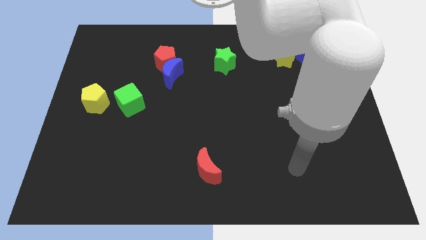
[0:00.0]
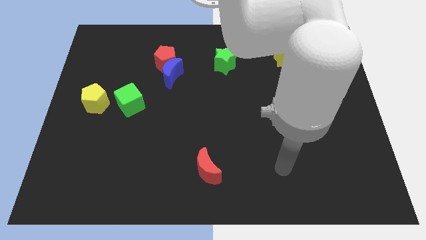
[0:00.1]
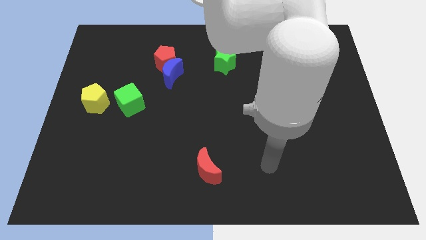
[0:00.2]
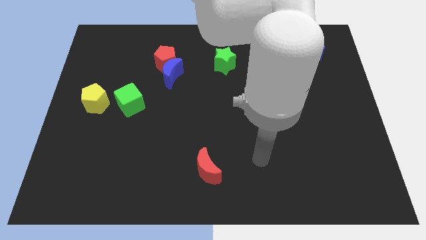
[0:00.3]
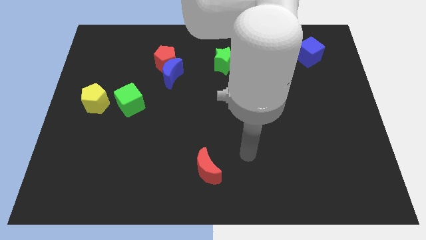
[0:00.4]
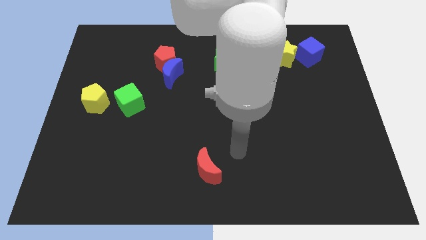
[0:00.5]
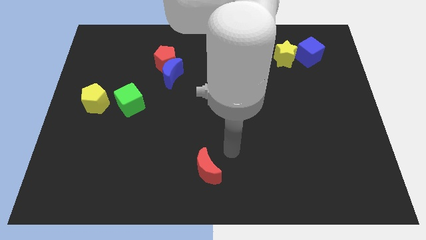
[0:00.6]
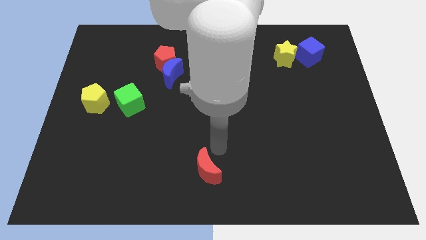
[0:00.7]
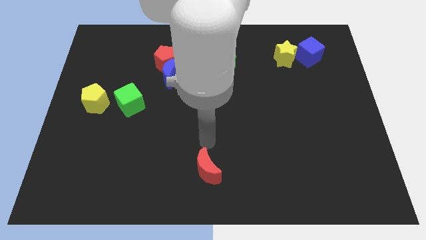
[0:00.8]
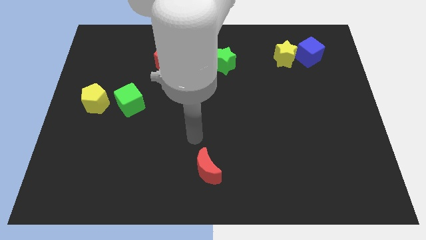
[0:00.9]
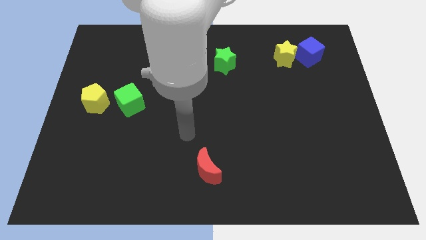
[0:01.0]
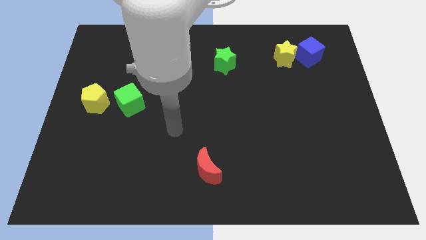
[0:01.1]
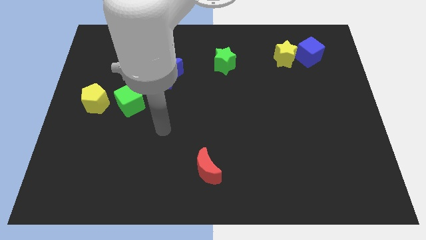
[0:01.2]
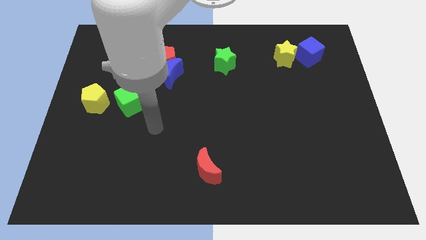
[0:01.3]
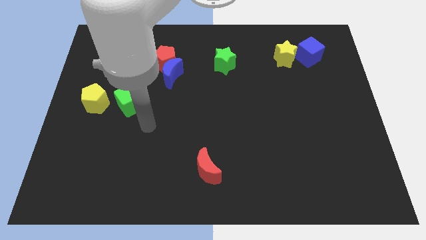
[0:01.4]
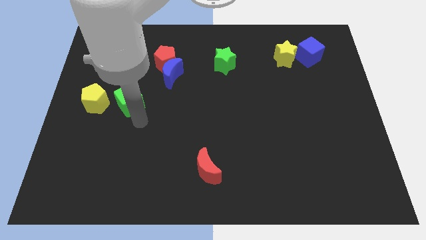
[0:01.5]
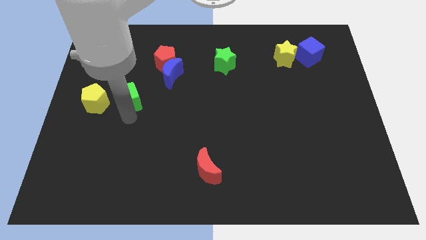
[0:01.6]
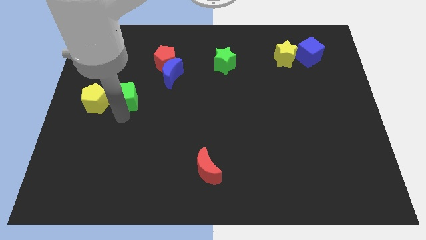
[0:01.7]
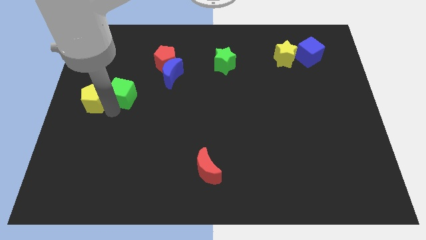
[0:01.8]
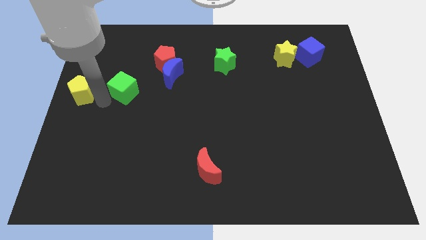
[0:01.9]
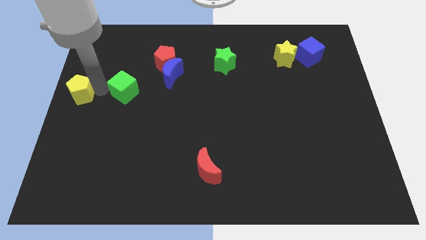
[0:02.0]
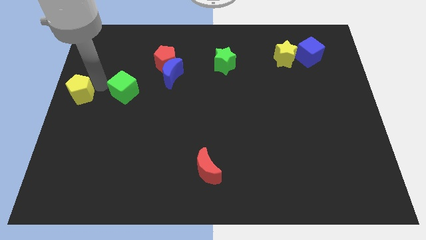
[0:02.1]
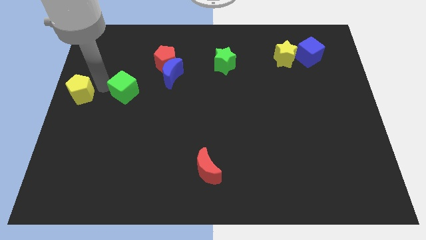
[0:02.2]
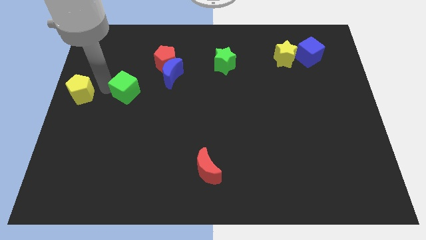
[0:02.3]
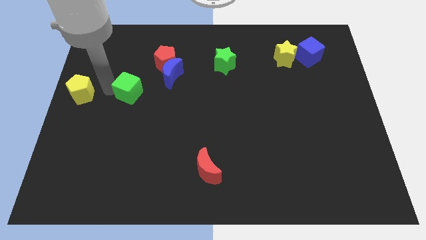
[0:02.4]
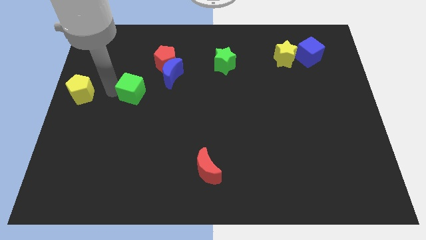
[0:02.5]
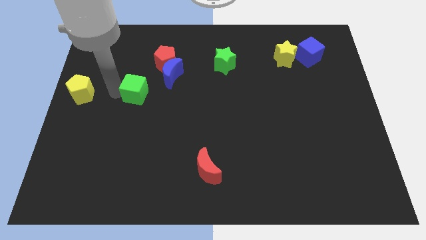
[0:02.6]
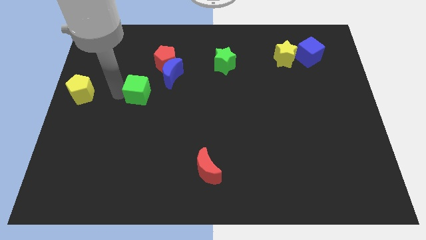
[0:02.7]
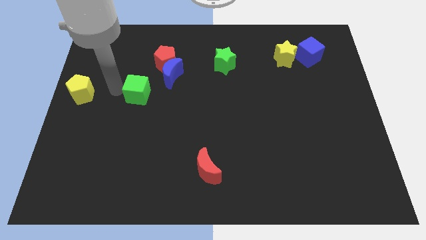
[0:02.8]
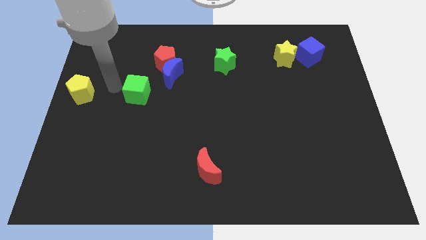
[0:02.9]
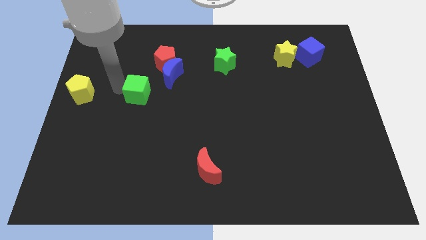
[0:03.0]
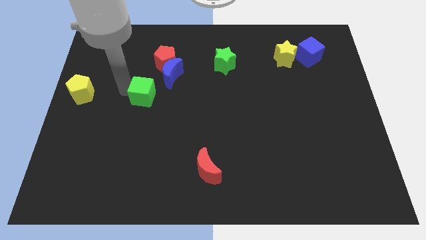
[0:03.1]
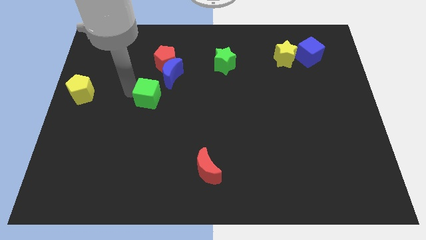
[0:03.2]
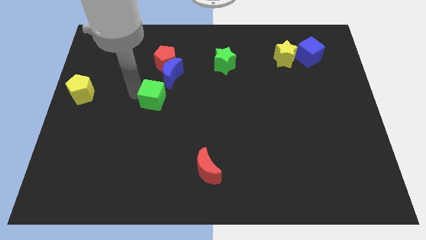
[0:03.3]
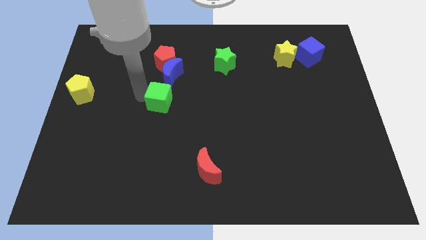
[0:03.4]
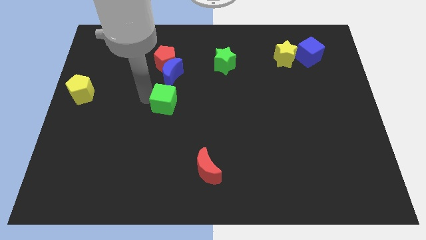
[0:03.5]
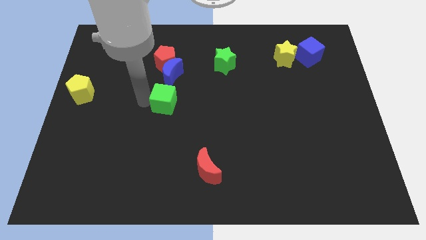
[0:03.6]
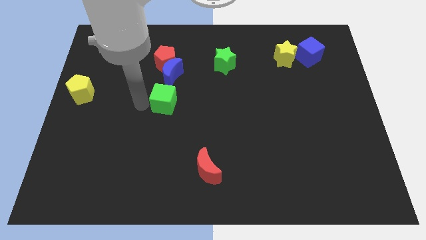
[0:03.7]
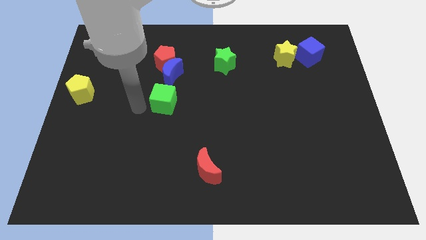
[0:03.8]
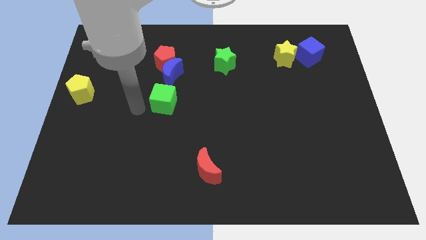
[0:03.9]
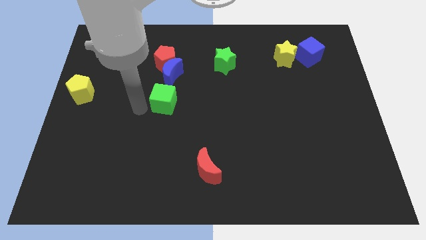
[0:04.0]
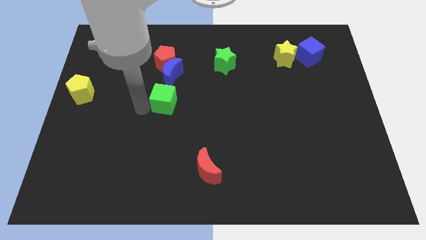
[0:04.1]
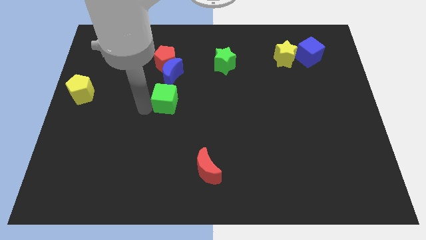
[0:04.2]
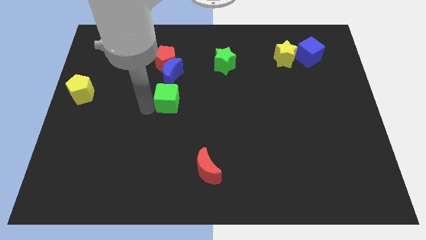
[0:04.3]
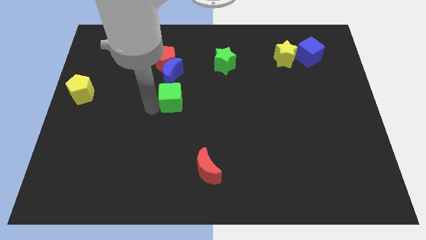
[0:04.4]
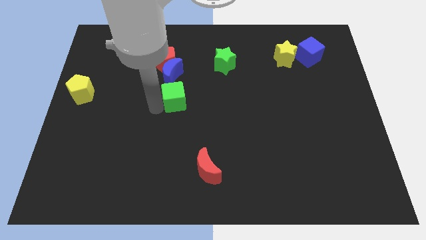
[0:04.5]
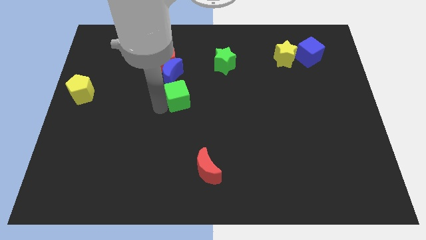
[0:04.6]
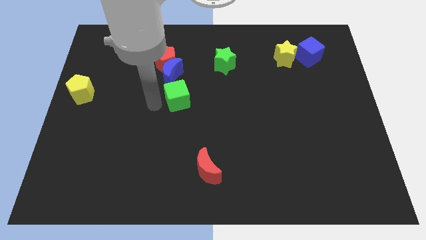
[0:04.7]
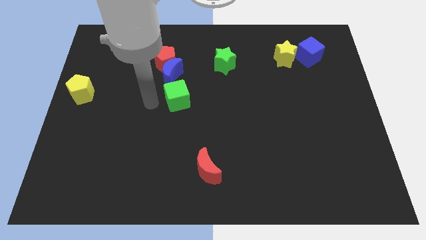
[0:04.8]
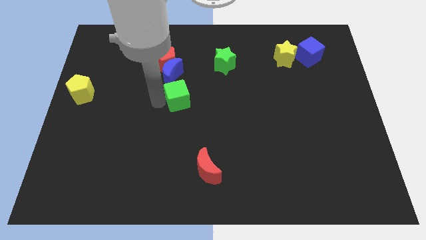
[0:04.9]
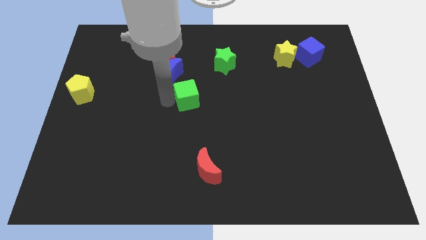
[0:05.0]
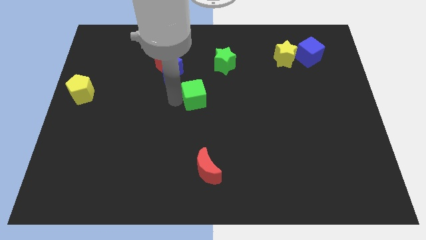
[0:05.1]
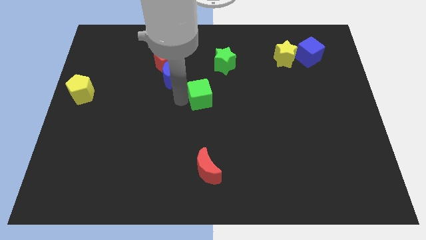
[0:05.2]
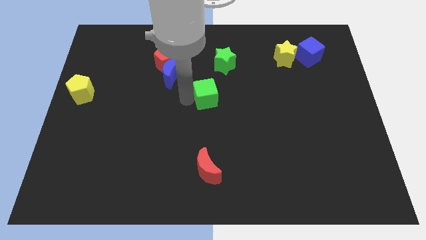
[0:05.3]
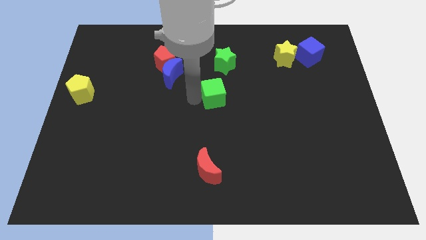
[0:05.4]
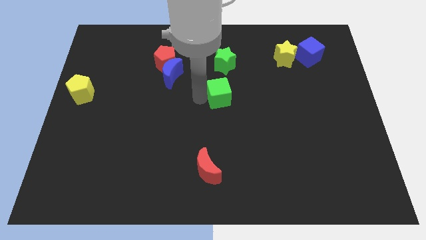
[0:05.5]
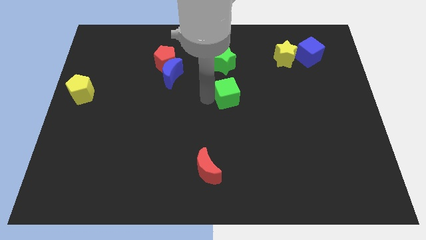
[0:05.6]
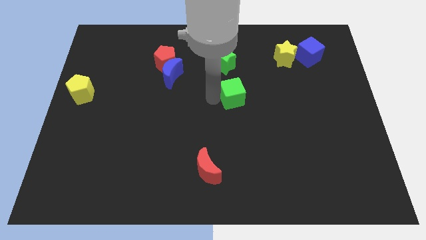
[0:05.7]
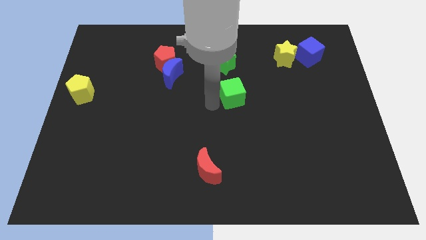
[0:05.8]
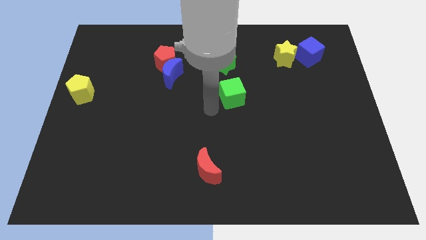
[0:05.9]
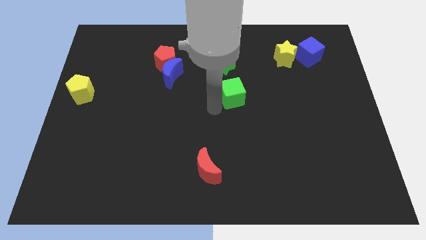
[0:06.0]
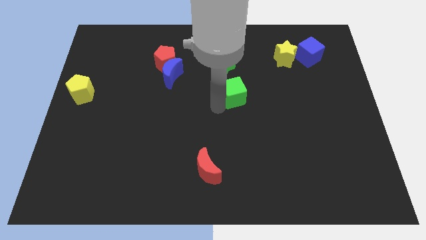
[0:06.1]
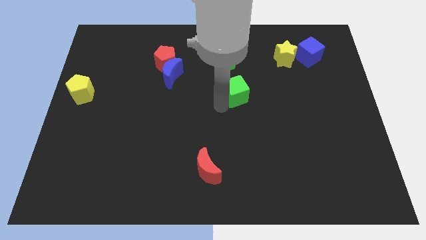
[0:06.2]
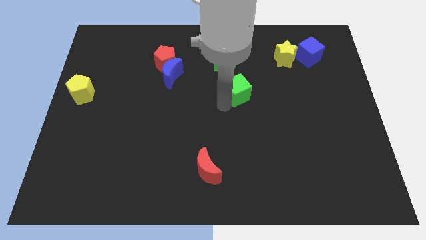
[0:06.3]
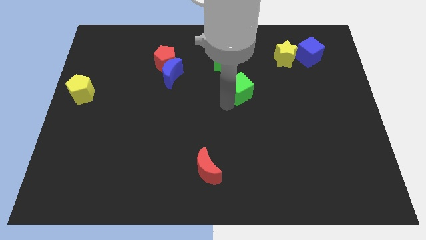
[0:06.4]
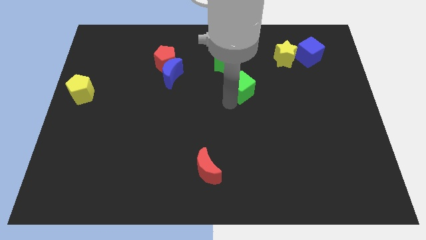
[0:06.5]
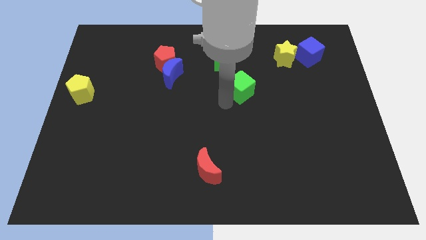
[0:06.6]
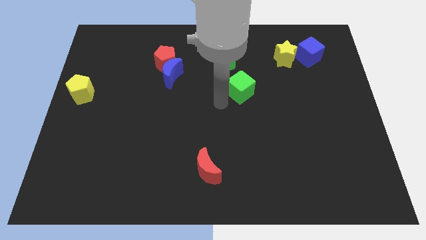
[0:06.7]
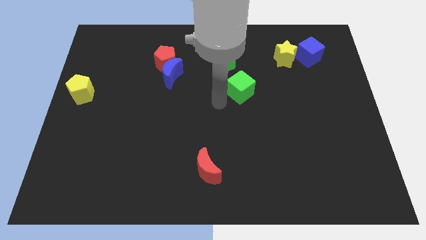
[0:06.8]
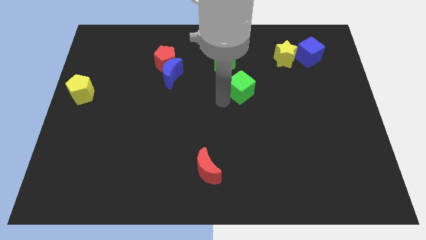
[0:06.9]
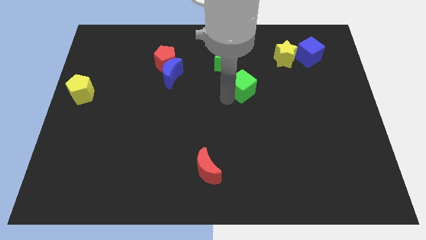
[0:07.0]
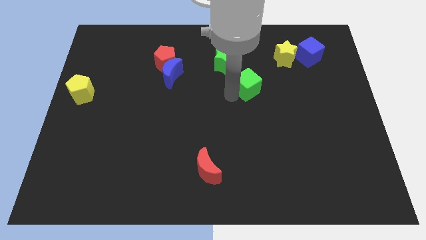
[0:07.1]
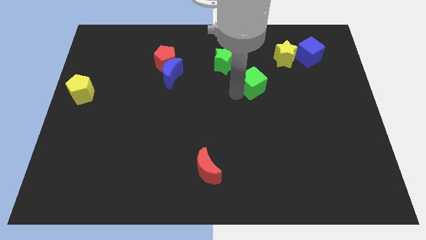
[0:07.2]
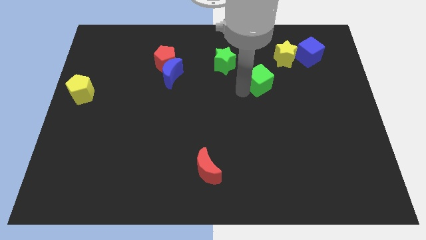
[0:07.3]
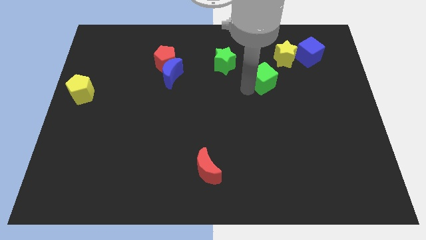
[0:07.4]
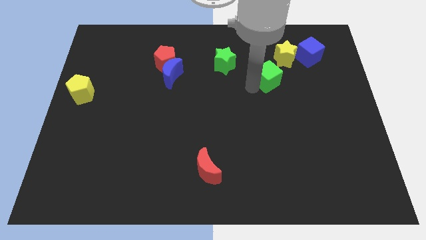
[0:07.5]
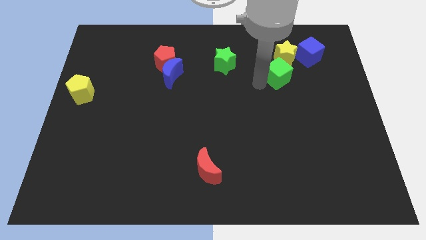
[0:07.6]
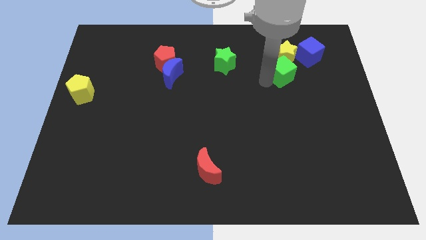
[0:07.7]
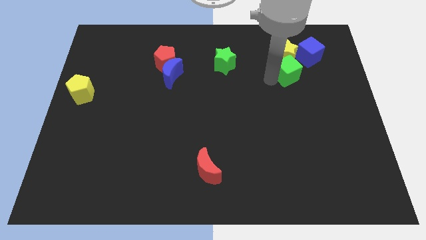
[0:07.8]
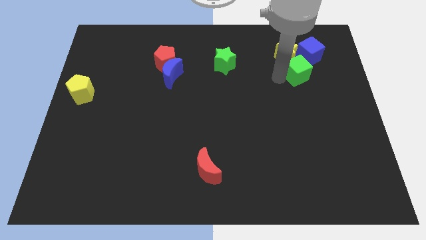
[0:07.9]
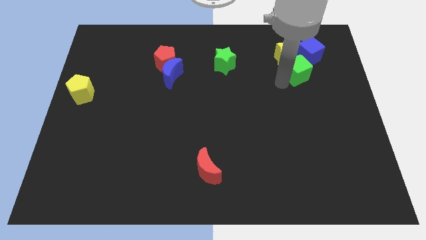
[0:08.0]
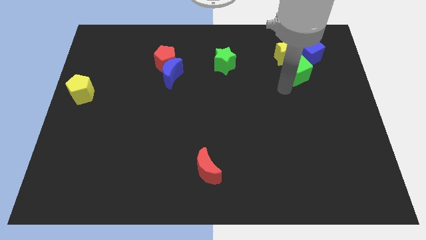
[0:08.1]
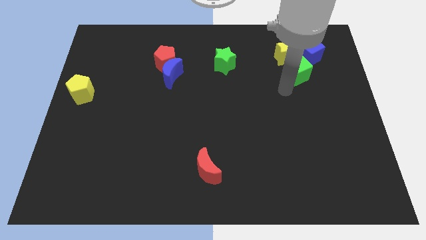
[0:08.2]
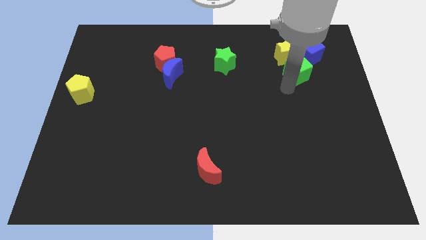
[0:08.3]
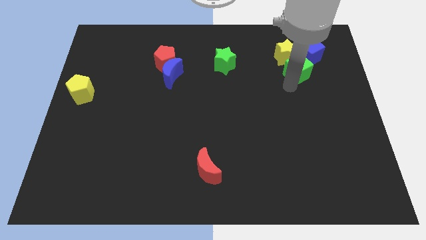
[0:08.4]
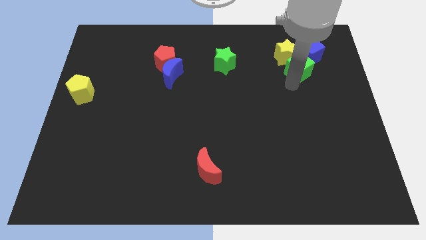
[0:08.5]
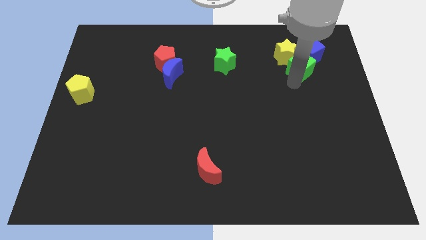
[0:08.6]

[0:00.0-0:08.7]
slide the green cube close to the blue cube
